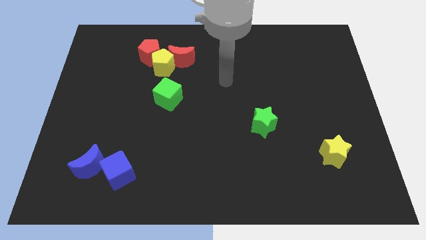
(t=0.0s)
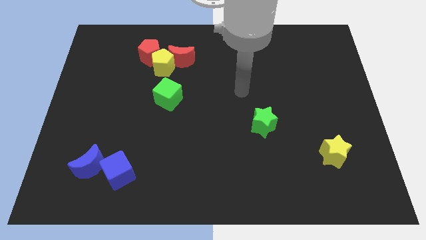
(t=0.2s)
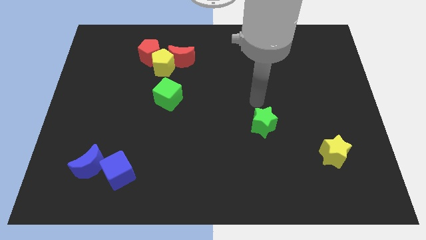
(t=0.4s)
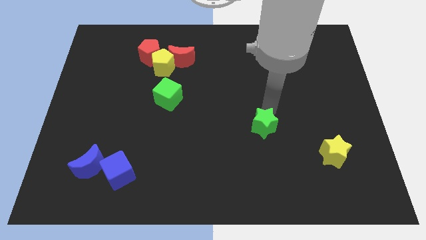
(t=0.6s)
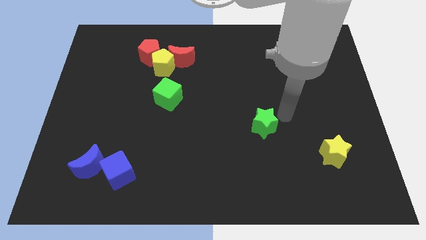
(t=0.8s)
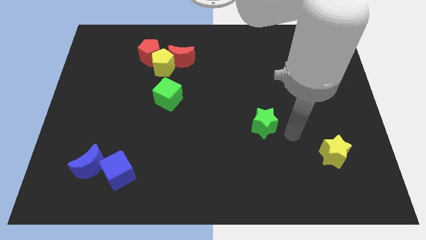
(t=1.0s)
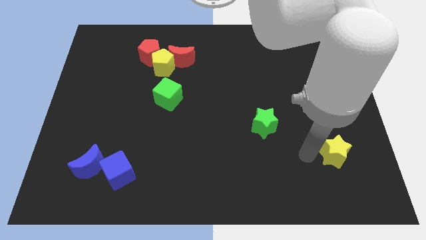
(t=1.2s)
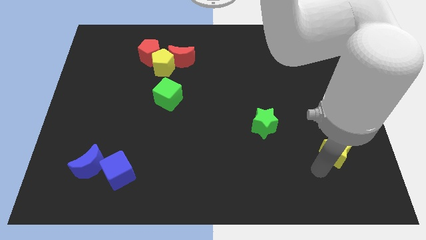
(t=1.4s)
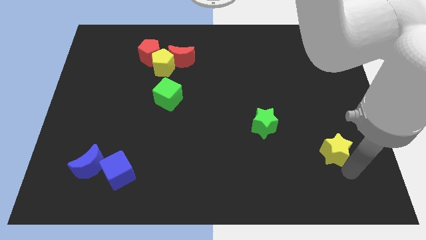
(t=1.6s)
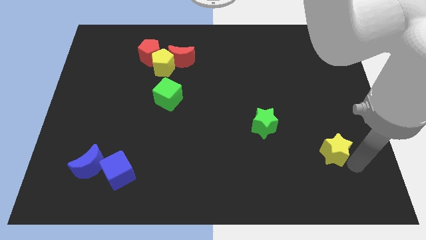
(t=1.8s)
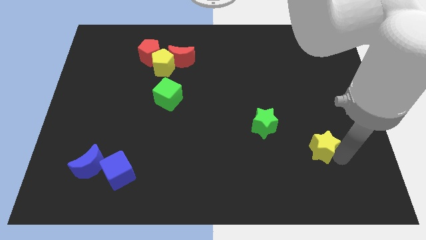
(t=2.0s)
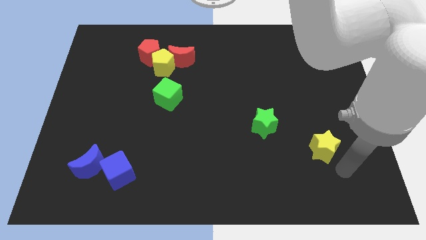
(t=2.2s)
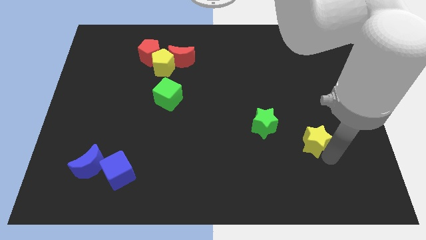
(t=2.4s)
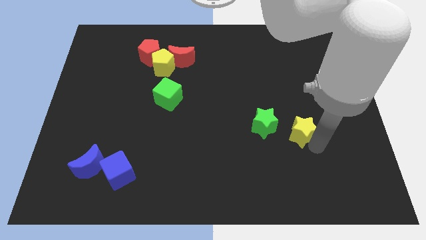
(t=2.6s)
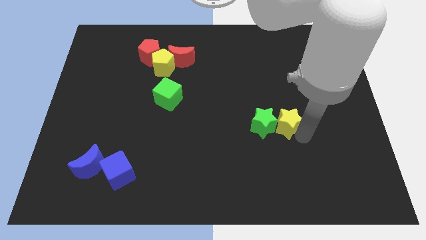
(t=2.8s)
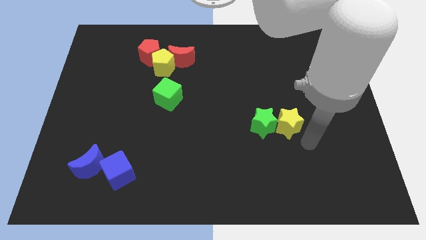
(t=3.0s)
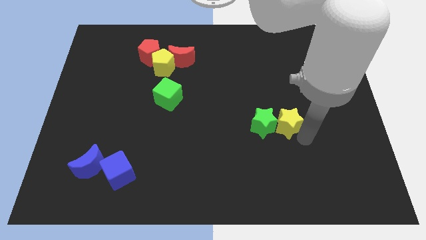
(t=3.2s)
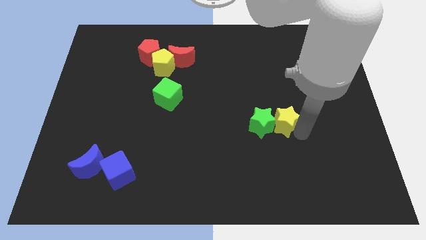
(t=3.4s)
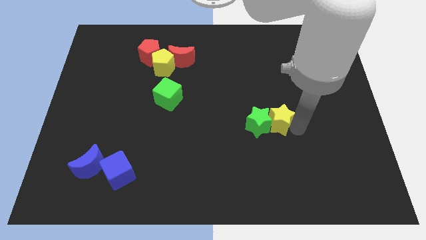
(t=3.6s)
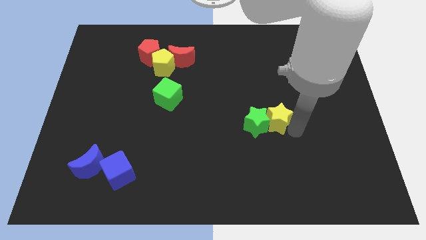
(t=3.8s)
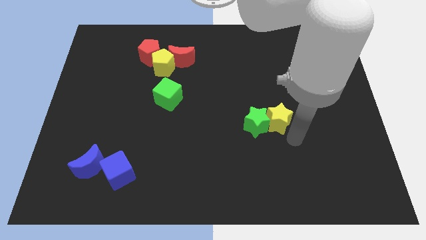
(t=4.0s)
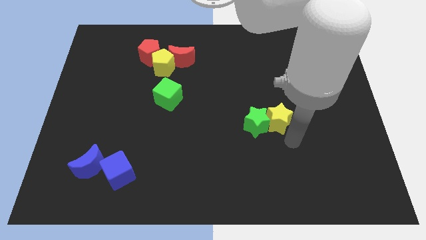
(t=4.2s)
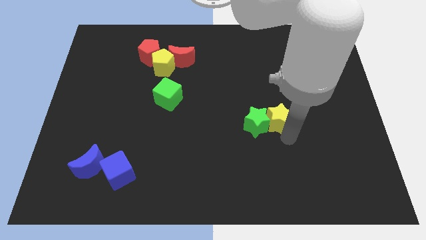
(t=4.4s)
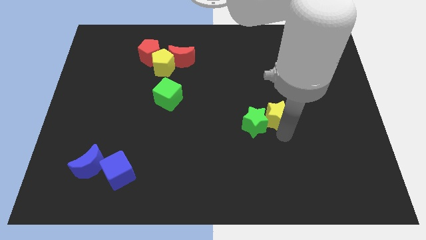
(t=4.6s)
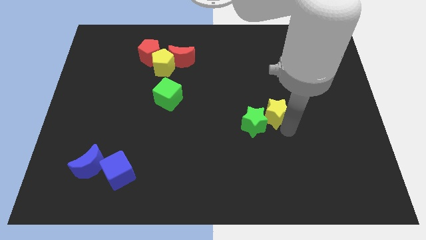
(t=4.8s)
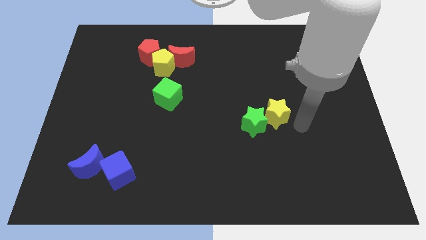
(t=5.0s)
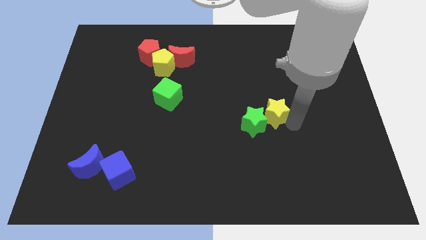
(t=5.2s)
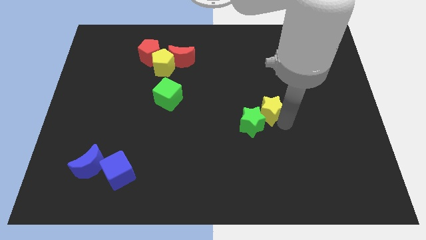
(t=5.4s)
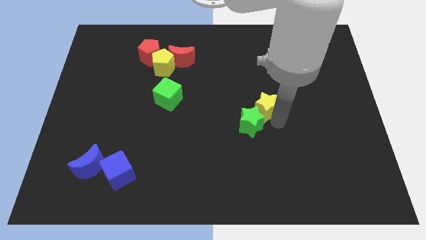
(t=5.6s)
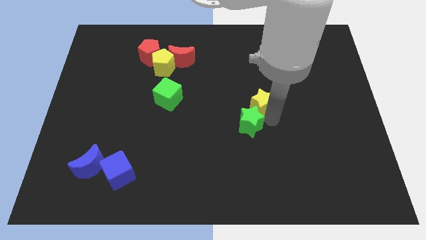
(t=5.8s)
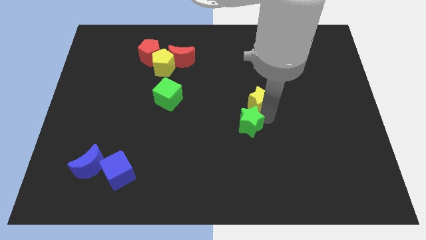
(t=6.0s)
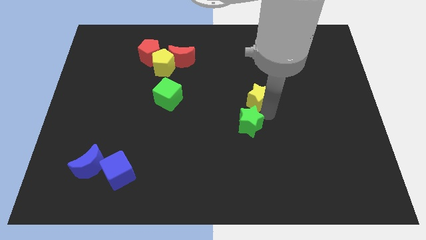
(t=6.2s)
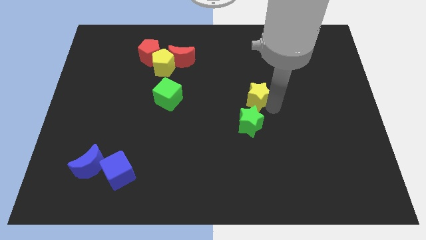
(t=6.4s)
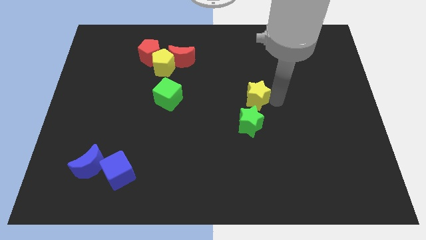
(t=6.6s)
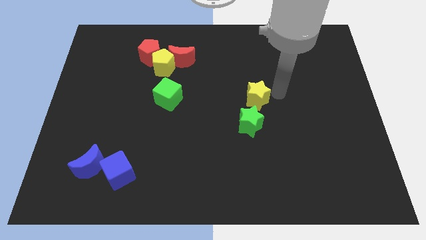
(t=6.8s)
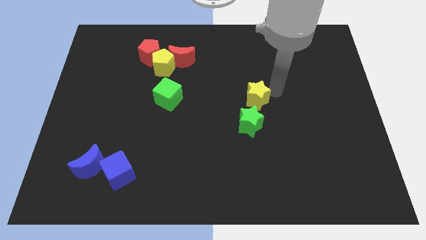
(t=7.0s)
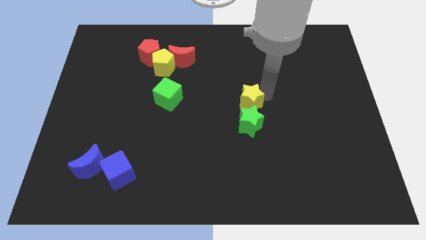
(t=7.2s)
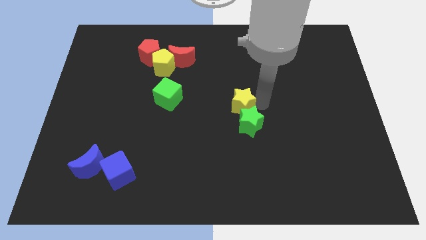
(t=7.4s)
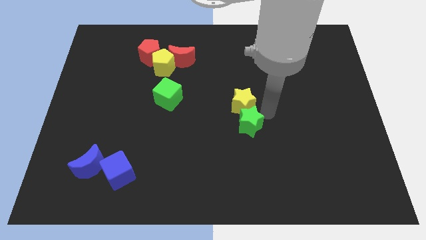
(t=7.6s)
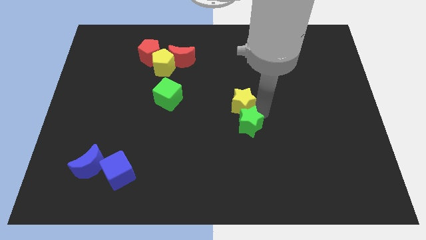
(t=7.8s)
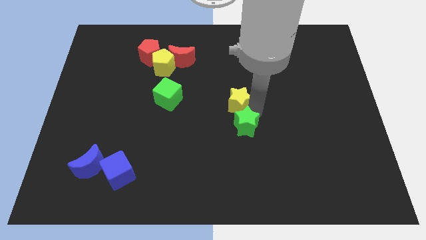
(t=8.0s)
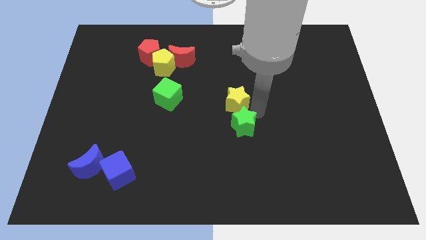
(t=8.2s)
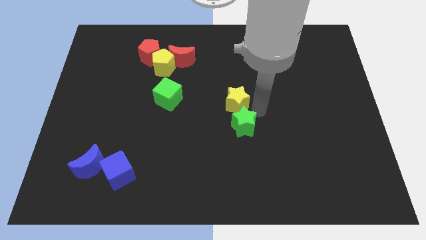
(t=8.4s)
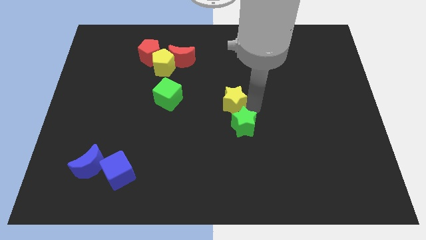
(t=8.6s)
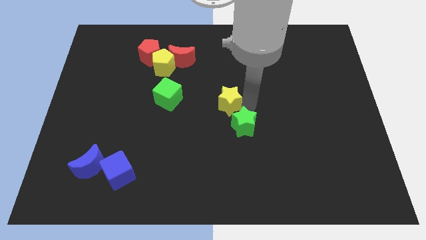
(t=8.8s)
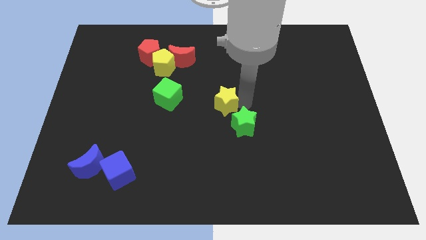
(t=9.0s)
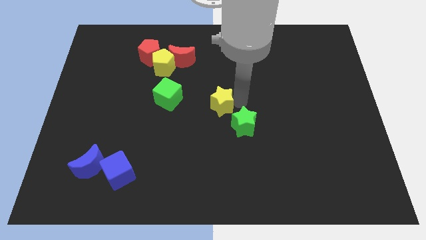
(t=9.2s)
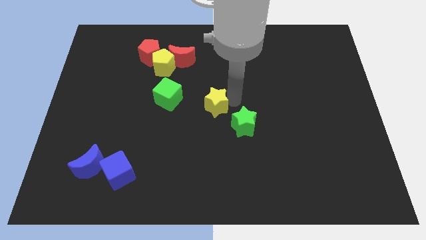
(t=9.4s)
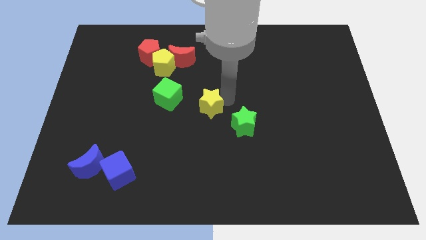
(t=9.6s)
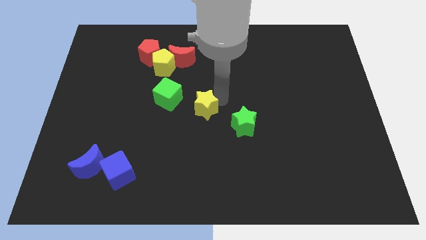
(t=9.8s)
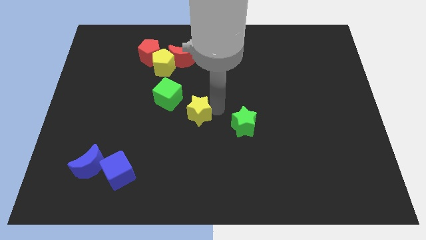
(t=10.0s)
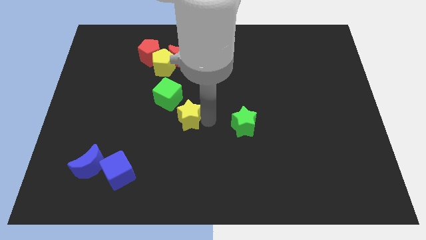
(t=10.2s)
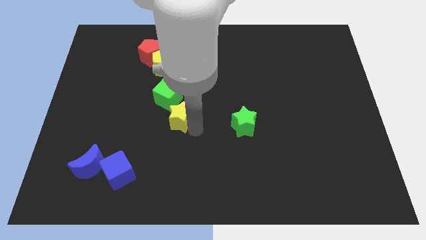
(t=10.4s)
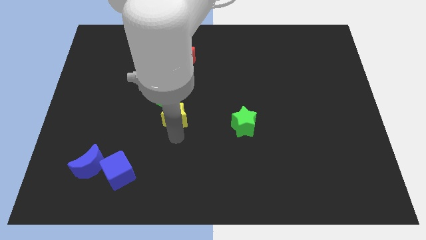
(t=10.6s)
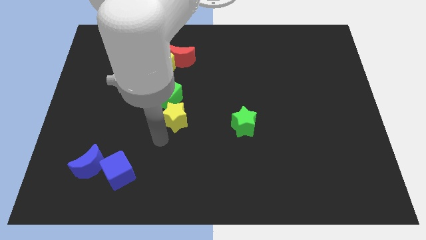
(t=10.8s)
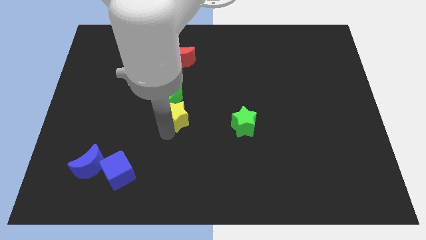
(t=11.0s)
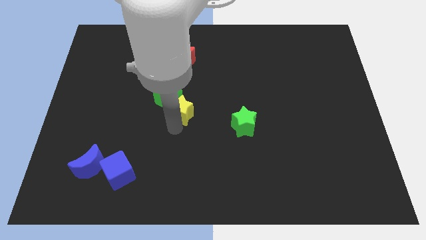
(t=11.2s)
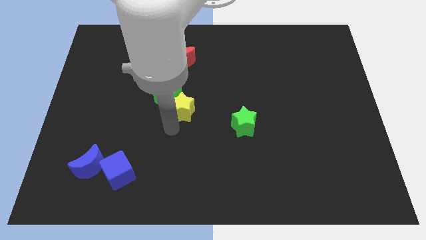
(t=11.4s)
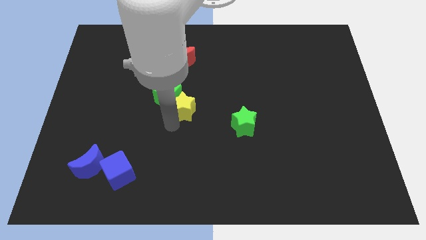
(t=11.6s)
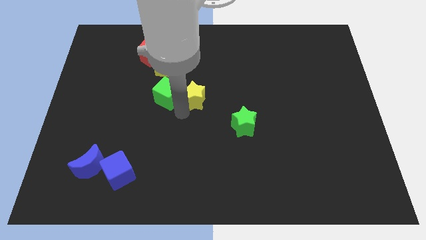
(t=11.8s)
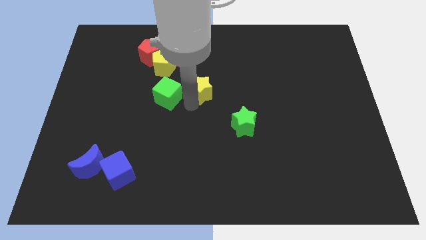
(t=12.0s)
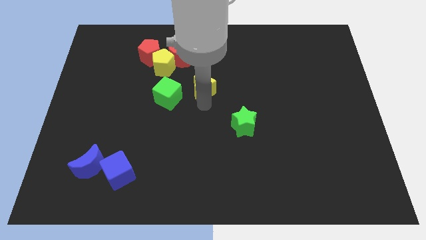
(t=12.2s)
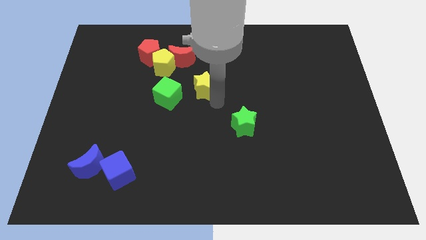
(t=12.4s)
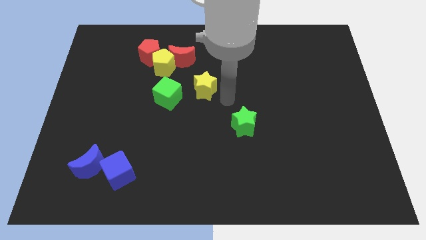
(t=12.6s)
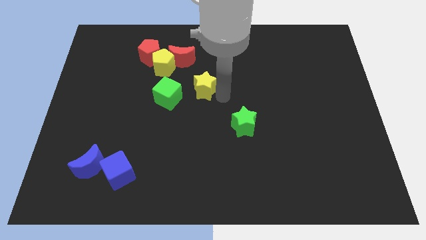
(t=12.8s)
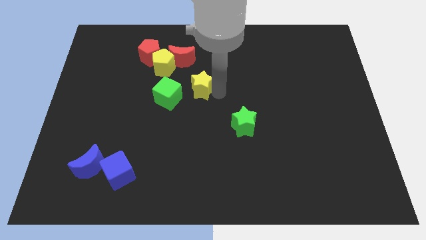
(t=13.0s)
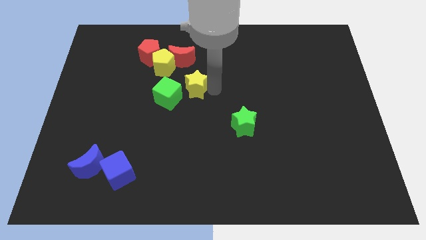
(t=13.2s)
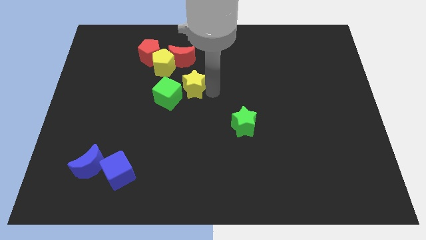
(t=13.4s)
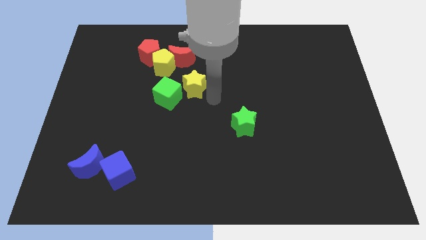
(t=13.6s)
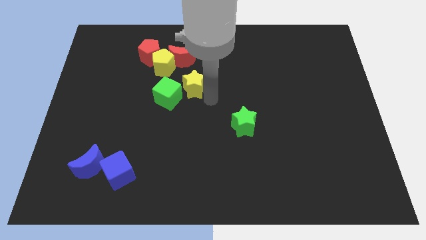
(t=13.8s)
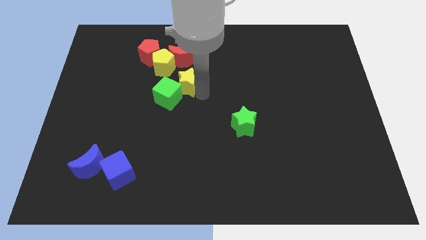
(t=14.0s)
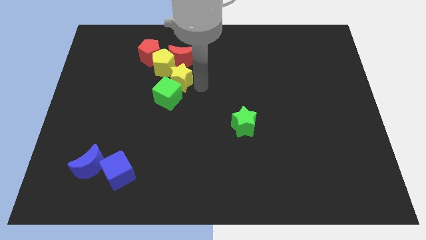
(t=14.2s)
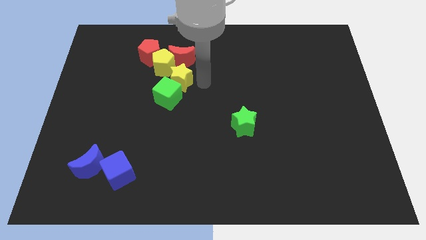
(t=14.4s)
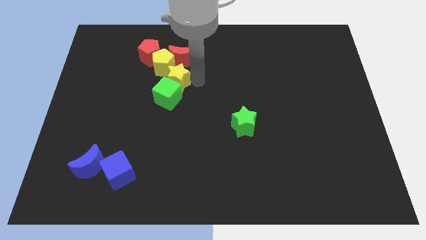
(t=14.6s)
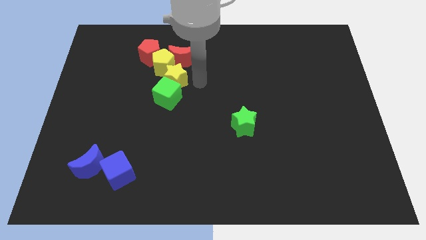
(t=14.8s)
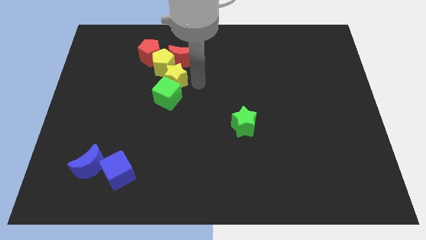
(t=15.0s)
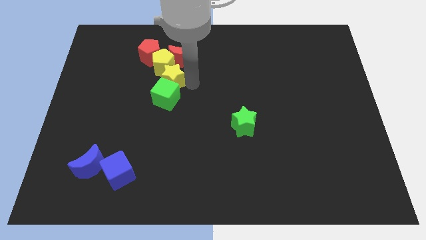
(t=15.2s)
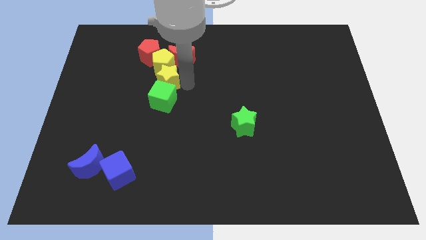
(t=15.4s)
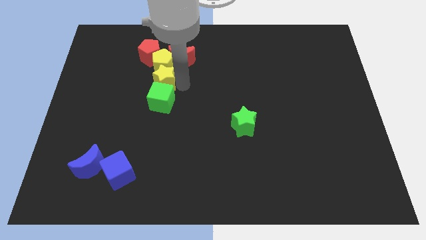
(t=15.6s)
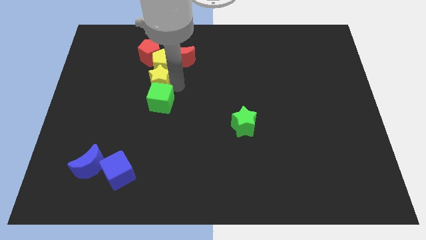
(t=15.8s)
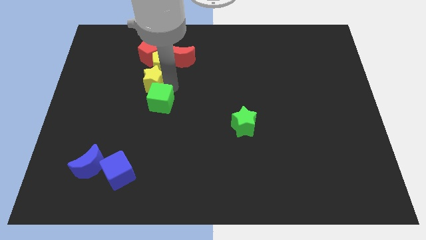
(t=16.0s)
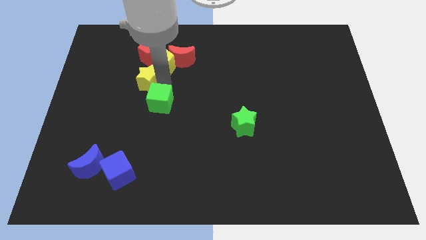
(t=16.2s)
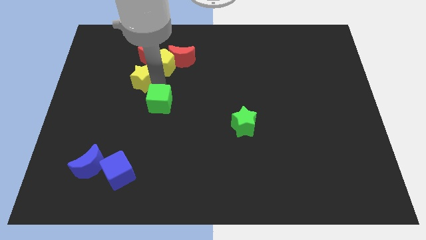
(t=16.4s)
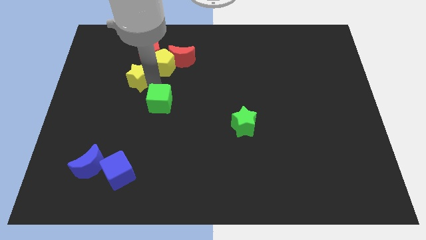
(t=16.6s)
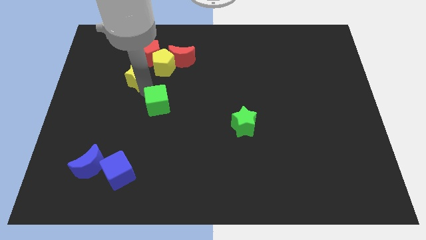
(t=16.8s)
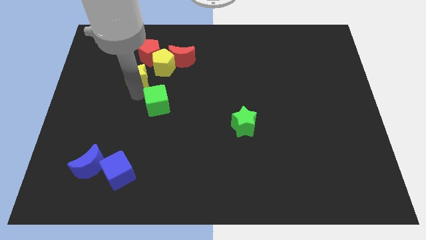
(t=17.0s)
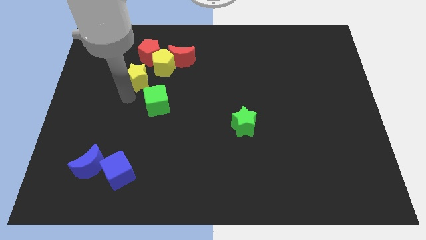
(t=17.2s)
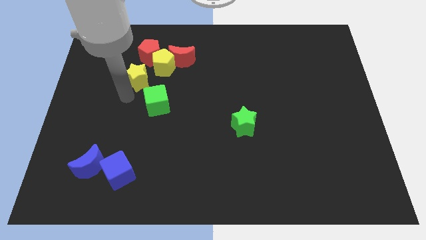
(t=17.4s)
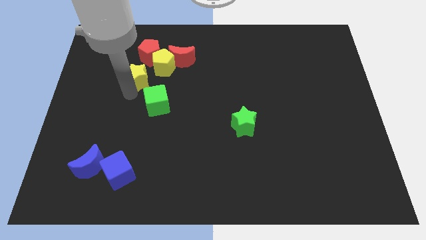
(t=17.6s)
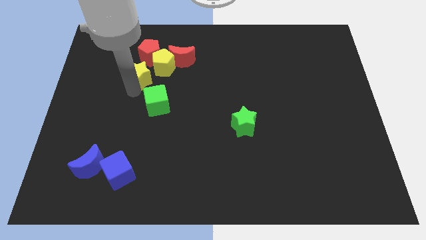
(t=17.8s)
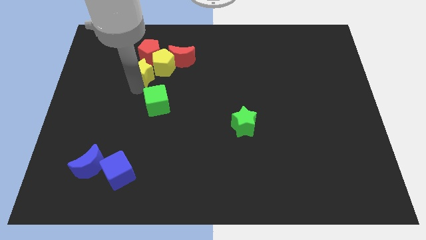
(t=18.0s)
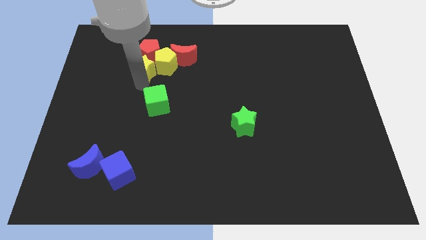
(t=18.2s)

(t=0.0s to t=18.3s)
slide the yellow star next to the red pentagon
